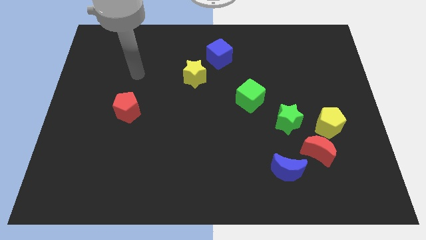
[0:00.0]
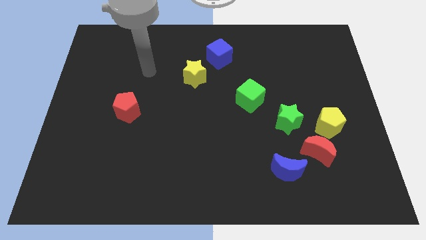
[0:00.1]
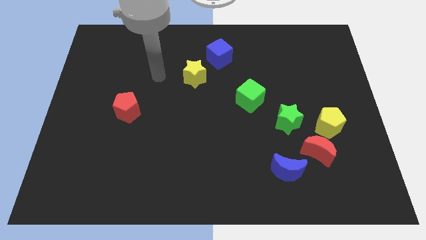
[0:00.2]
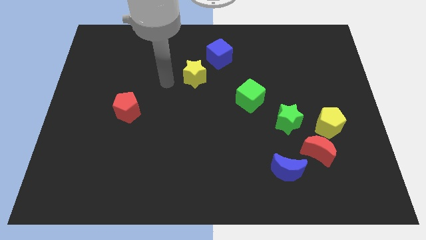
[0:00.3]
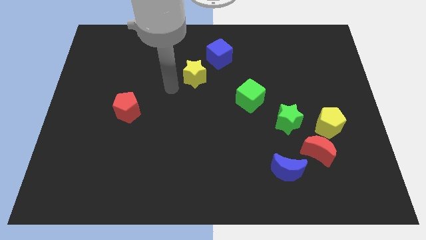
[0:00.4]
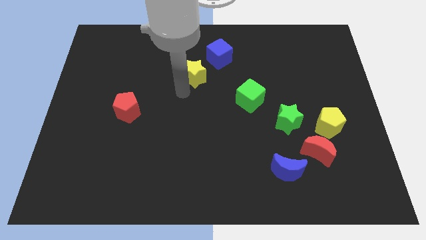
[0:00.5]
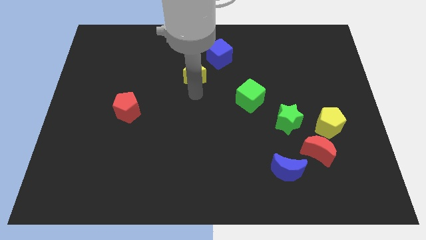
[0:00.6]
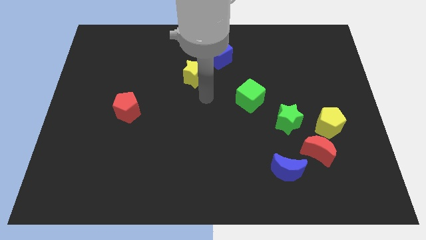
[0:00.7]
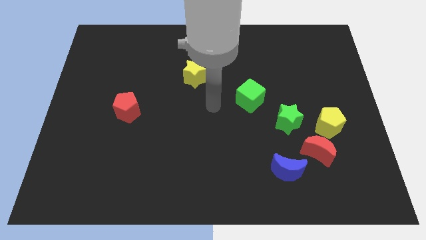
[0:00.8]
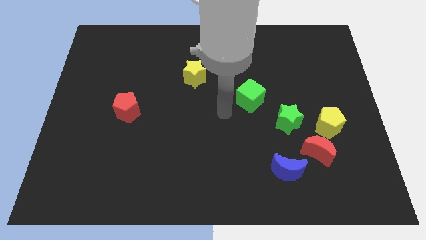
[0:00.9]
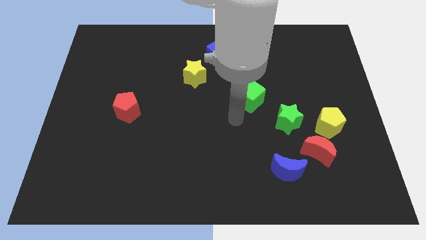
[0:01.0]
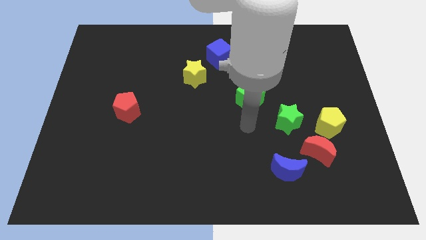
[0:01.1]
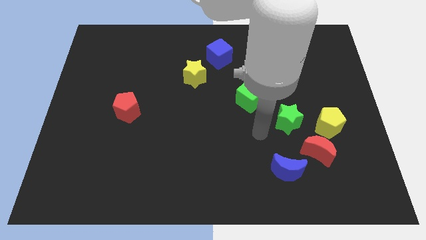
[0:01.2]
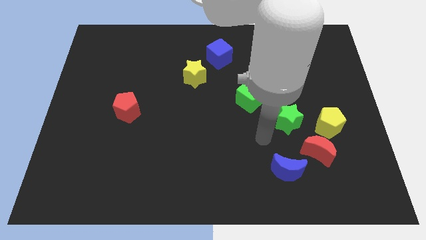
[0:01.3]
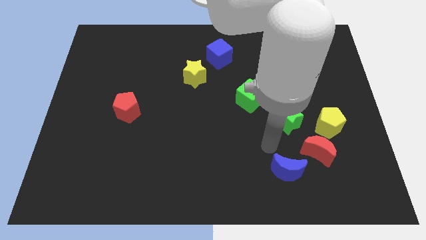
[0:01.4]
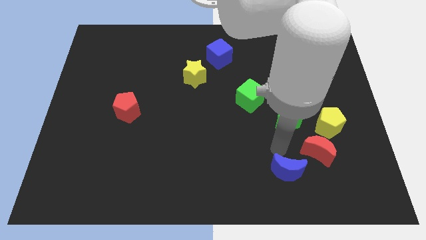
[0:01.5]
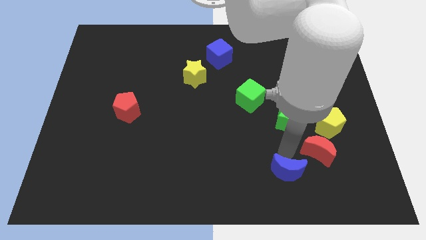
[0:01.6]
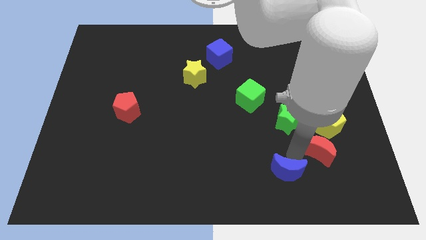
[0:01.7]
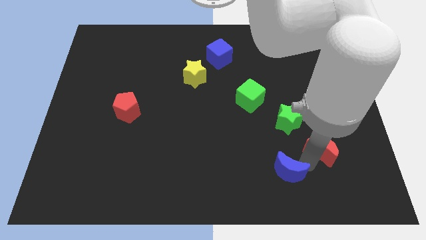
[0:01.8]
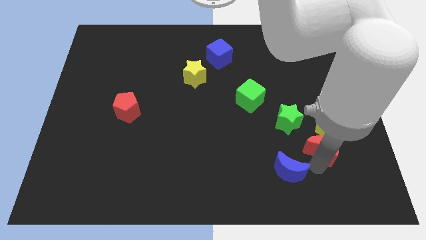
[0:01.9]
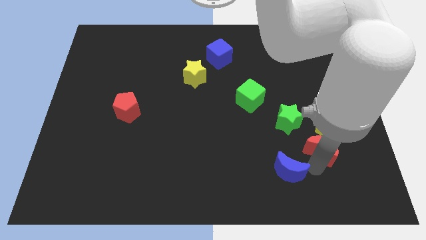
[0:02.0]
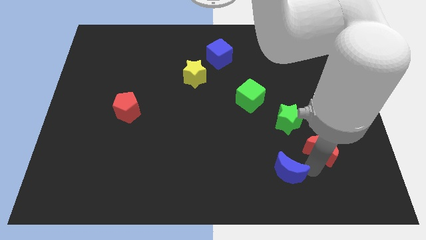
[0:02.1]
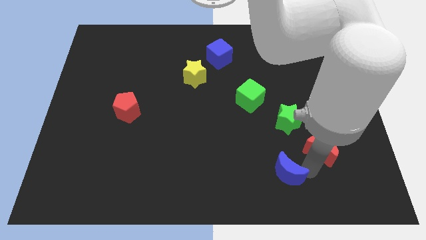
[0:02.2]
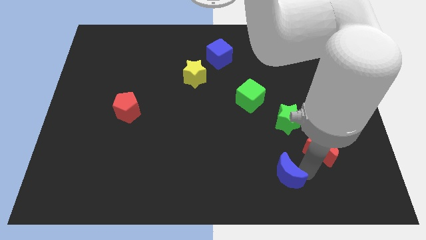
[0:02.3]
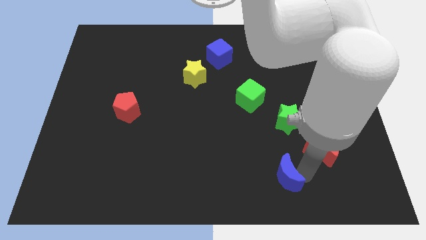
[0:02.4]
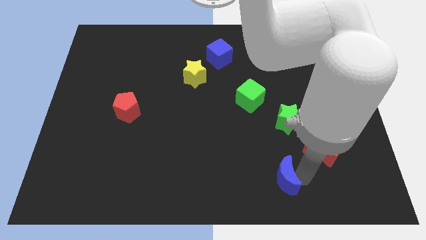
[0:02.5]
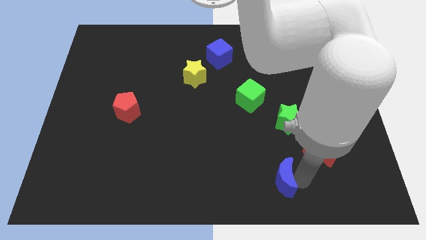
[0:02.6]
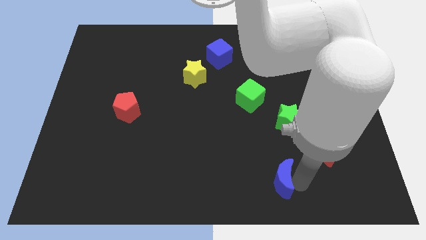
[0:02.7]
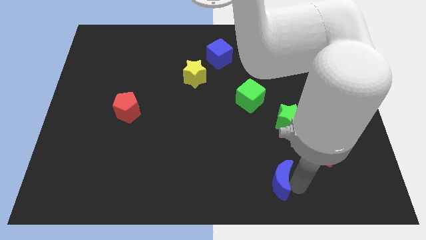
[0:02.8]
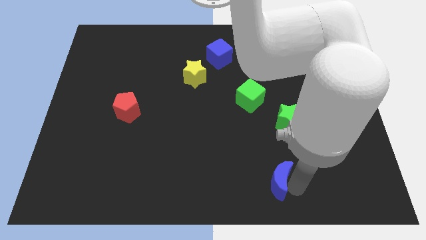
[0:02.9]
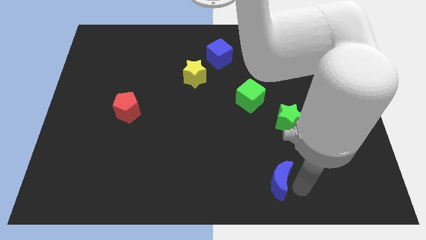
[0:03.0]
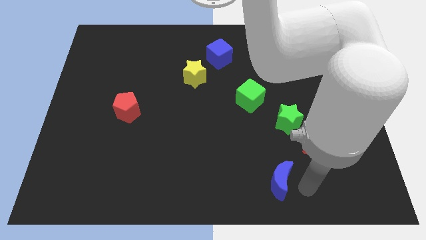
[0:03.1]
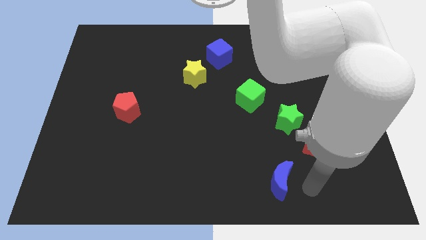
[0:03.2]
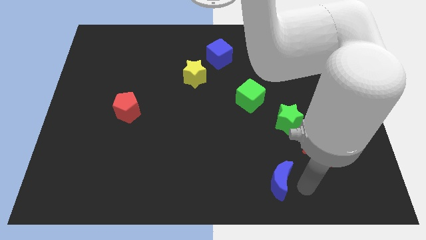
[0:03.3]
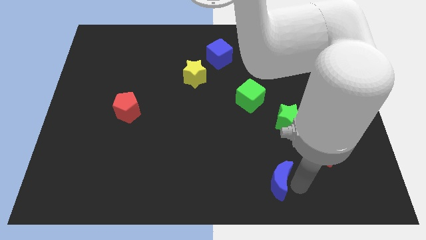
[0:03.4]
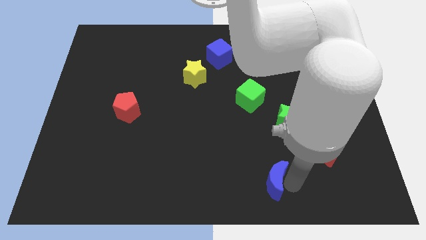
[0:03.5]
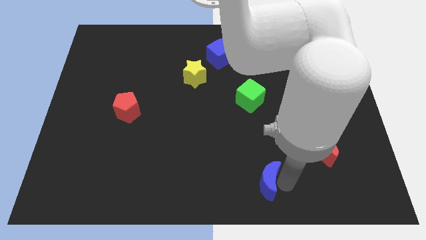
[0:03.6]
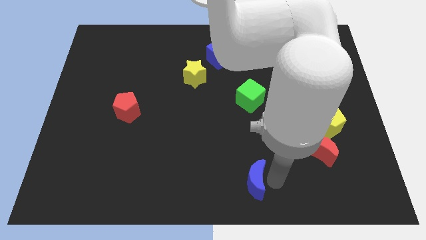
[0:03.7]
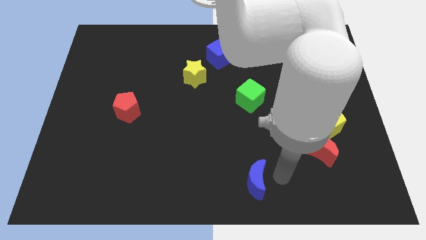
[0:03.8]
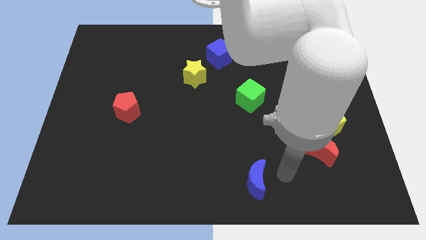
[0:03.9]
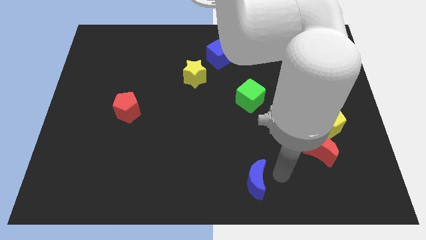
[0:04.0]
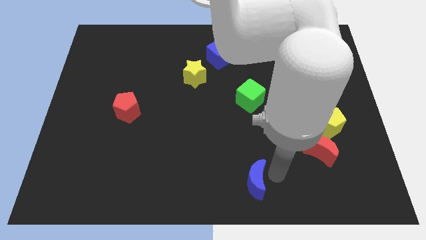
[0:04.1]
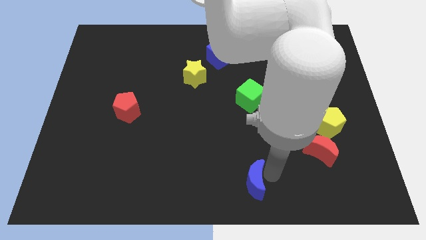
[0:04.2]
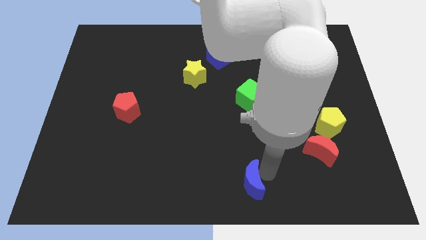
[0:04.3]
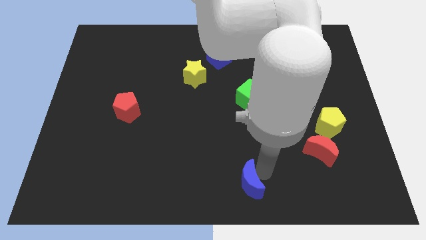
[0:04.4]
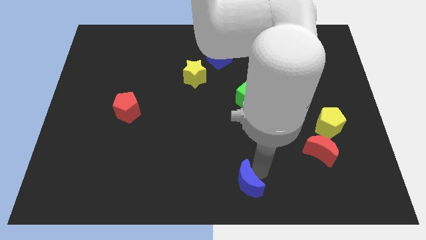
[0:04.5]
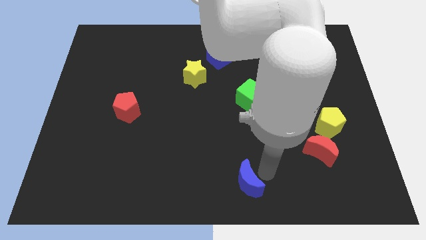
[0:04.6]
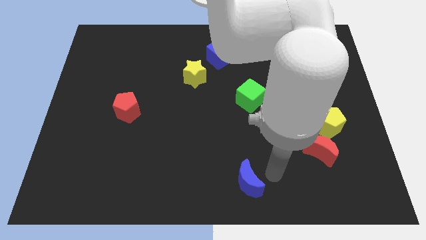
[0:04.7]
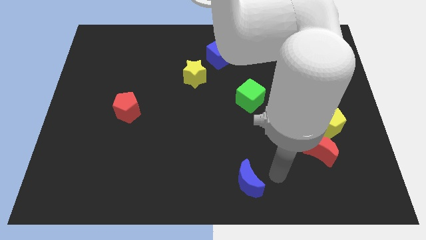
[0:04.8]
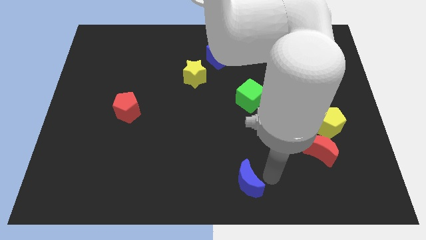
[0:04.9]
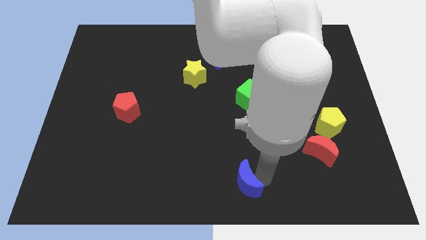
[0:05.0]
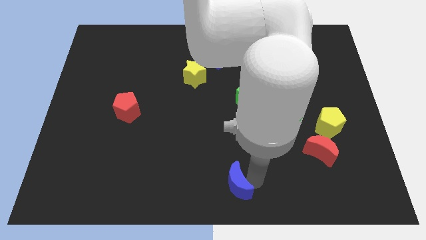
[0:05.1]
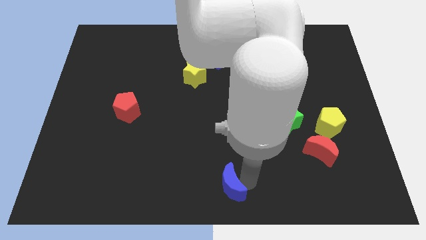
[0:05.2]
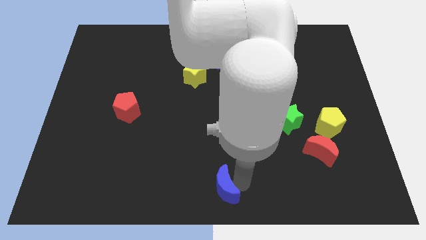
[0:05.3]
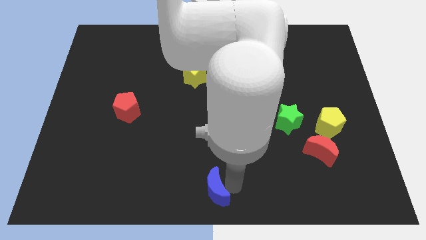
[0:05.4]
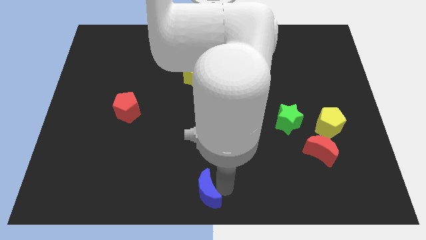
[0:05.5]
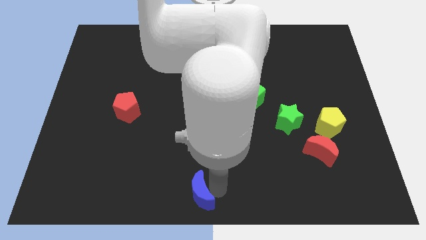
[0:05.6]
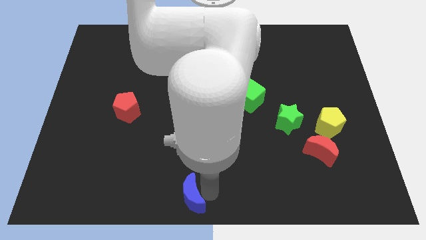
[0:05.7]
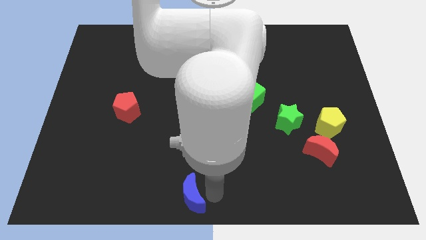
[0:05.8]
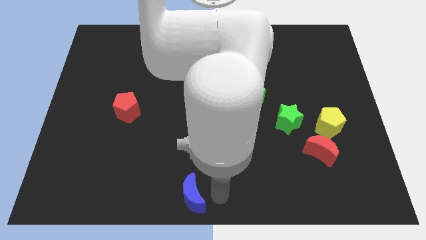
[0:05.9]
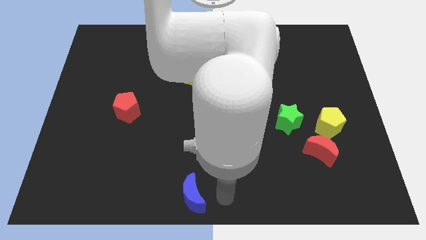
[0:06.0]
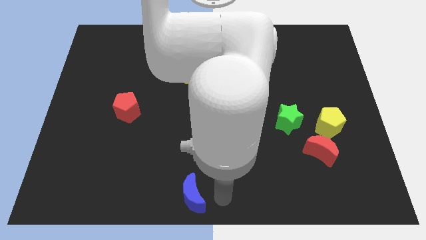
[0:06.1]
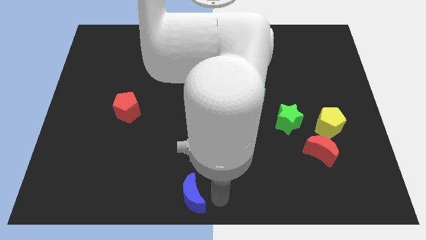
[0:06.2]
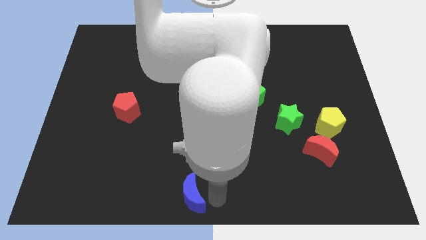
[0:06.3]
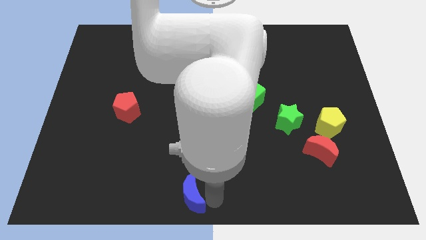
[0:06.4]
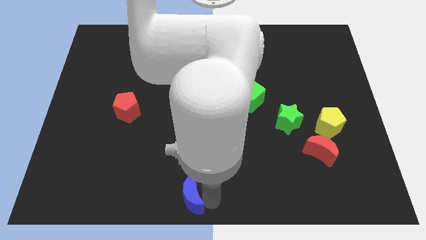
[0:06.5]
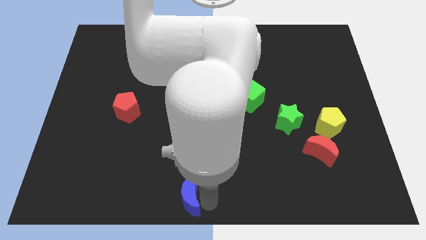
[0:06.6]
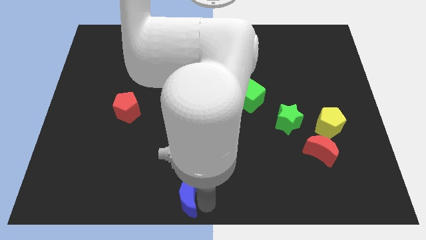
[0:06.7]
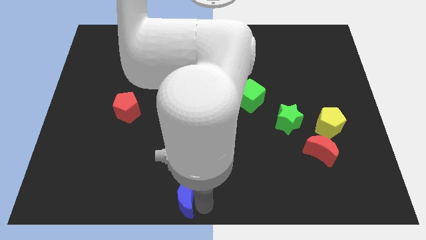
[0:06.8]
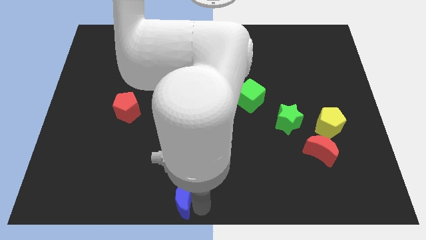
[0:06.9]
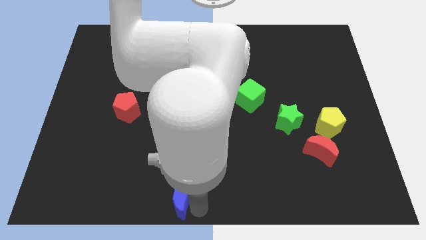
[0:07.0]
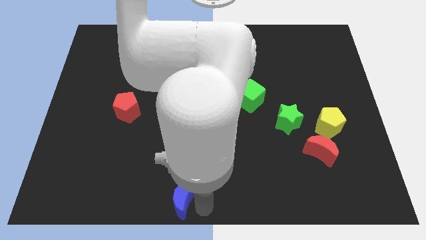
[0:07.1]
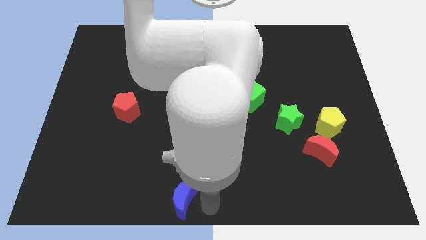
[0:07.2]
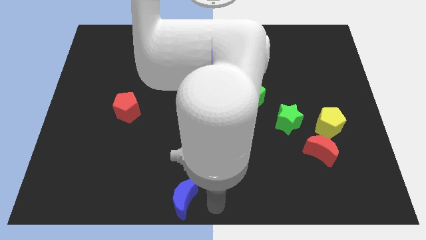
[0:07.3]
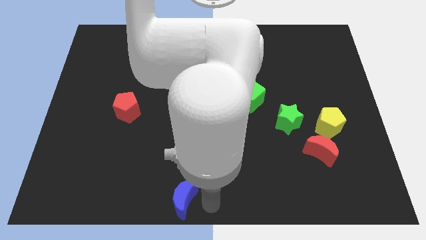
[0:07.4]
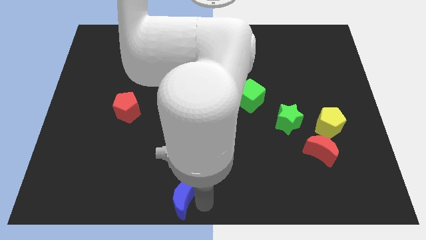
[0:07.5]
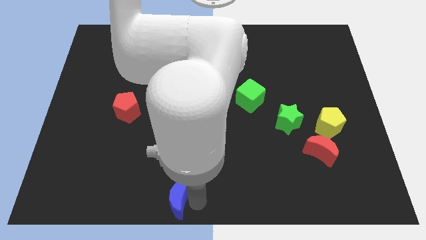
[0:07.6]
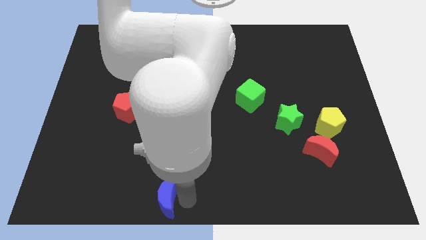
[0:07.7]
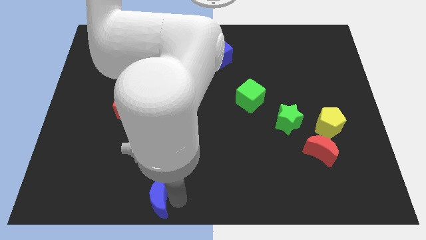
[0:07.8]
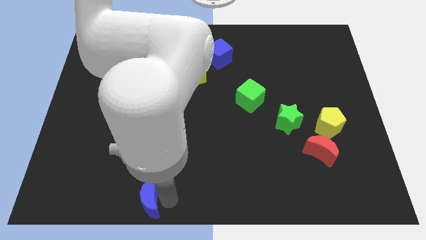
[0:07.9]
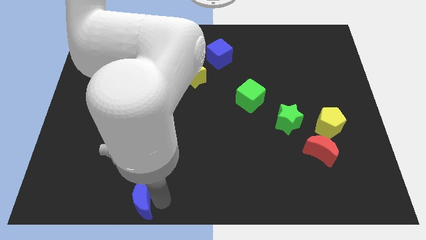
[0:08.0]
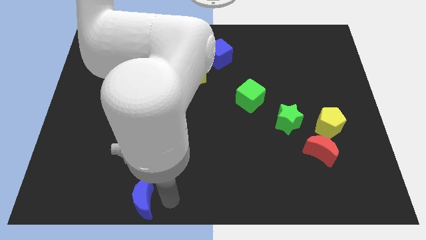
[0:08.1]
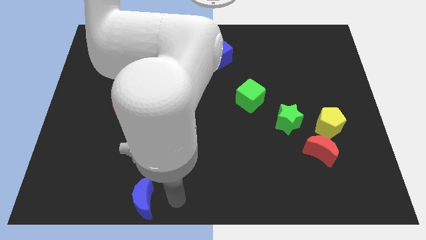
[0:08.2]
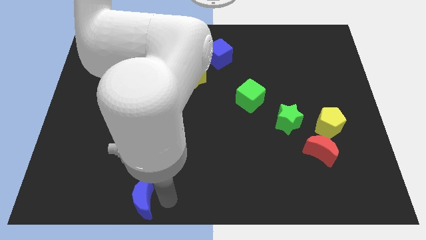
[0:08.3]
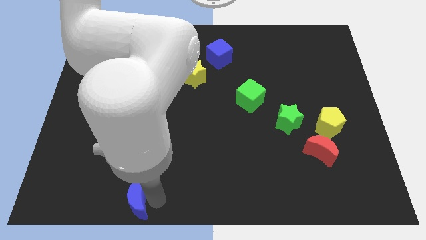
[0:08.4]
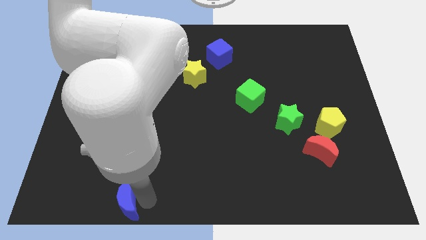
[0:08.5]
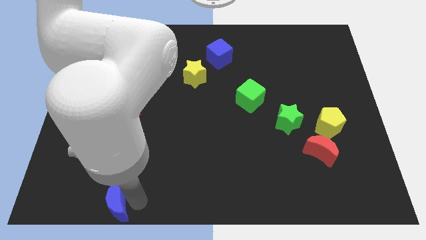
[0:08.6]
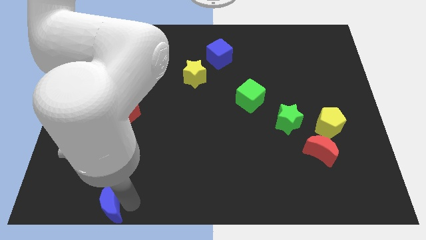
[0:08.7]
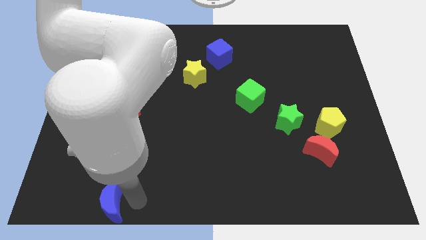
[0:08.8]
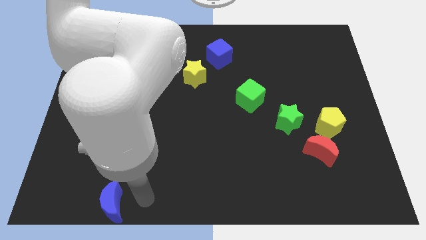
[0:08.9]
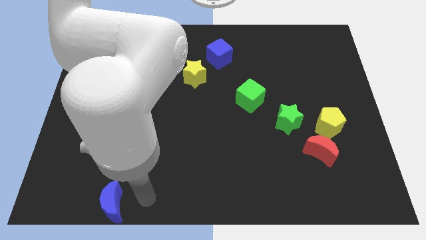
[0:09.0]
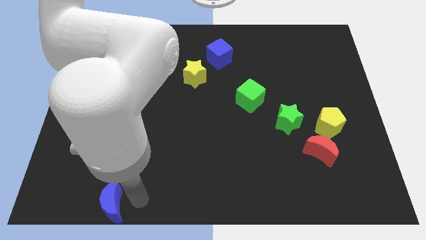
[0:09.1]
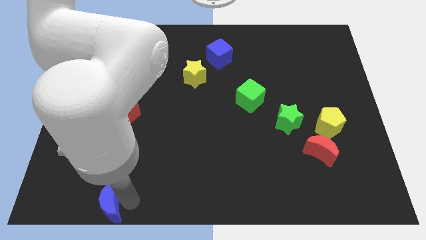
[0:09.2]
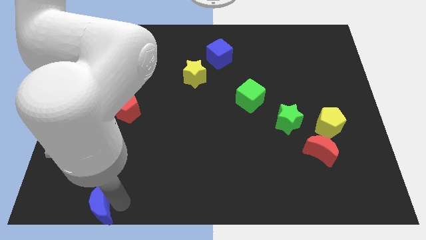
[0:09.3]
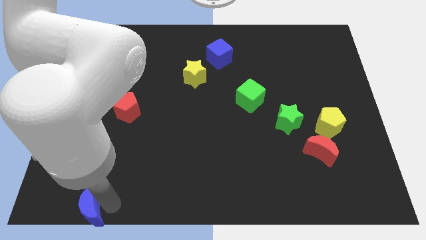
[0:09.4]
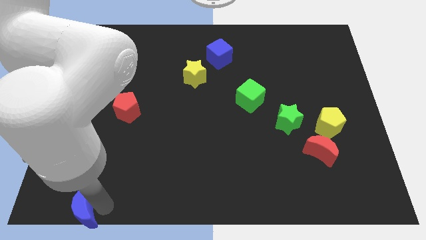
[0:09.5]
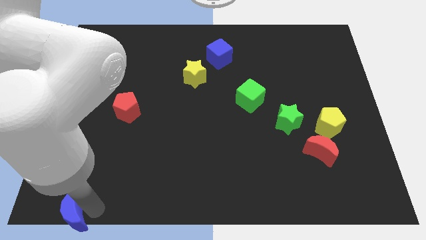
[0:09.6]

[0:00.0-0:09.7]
slide the blue moon to the bottom left
